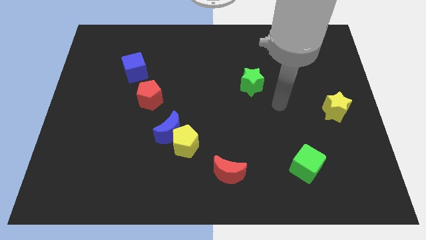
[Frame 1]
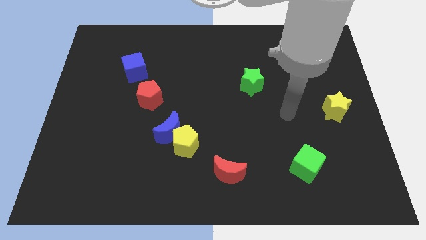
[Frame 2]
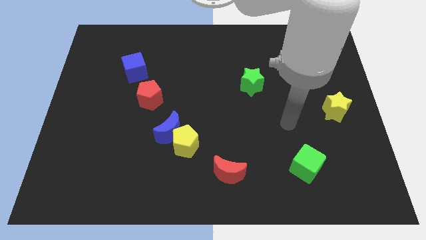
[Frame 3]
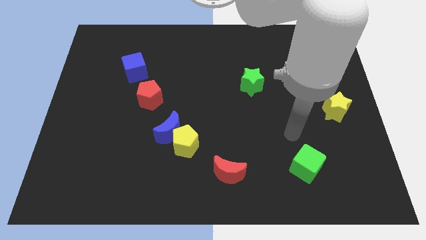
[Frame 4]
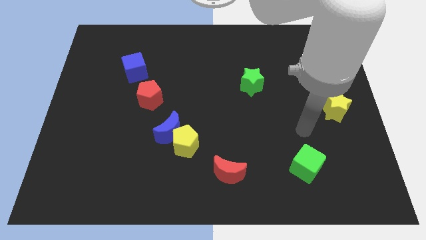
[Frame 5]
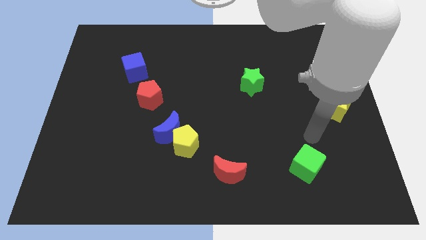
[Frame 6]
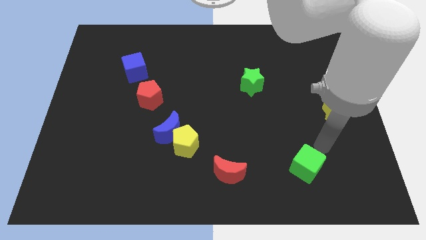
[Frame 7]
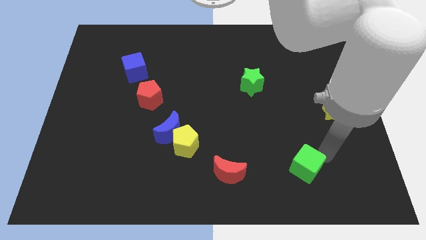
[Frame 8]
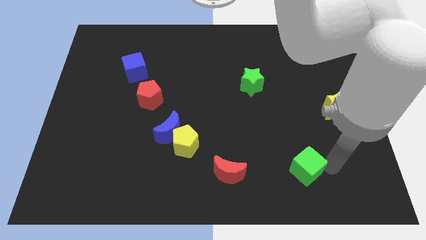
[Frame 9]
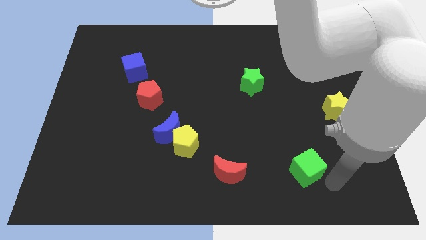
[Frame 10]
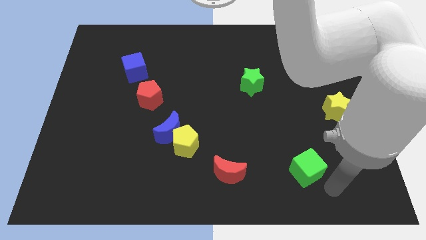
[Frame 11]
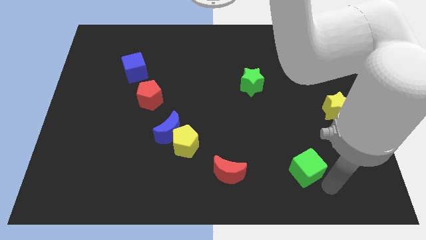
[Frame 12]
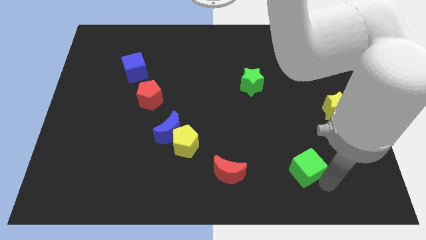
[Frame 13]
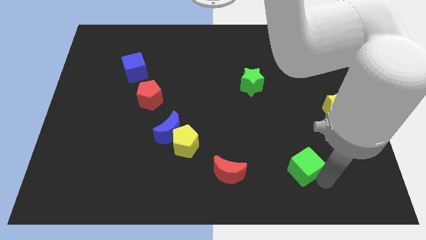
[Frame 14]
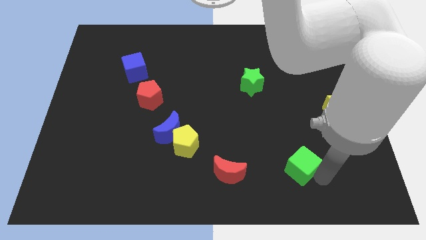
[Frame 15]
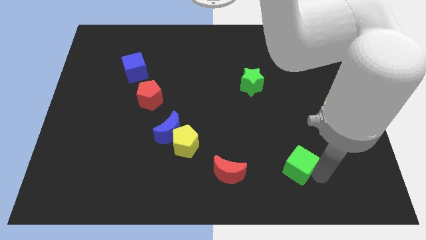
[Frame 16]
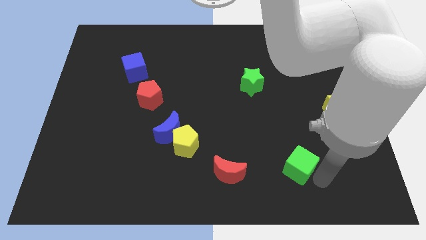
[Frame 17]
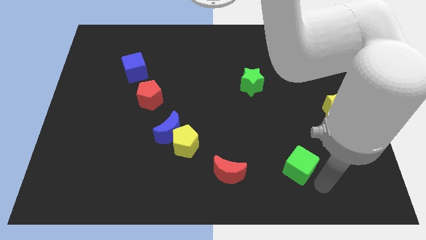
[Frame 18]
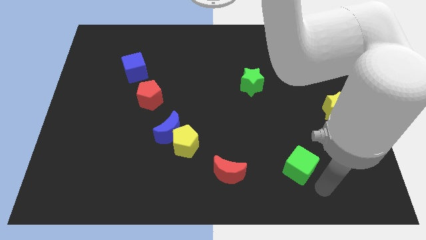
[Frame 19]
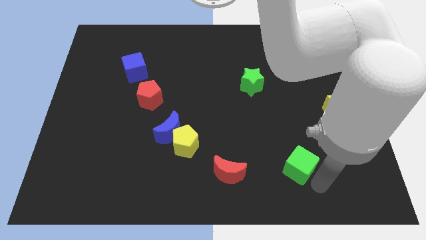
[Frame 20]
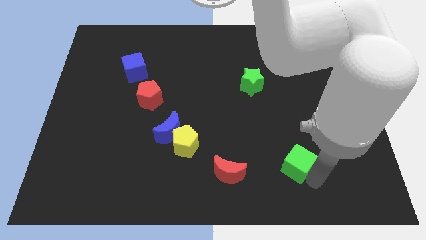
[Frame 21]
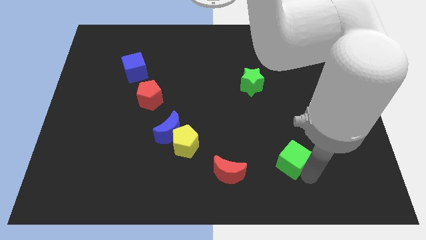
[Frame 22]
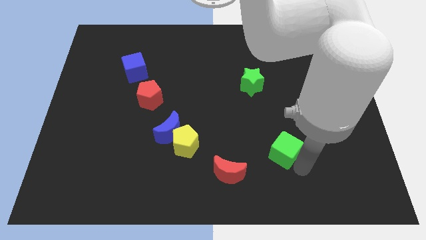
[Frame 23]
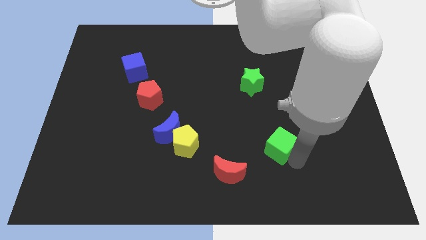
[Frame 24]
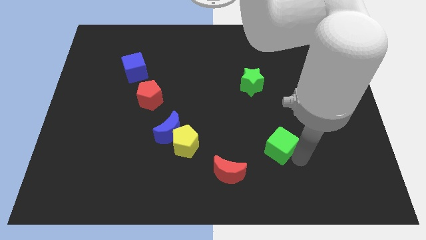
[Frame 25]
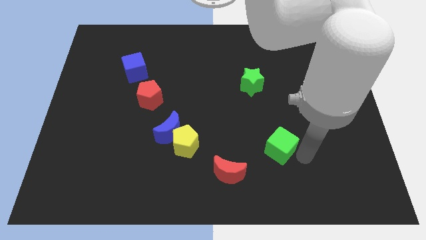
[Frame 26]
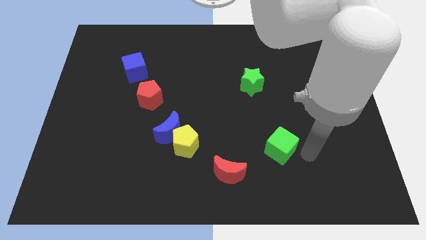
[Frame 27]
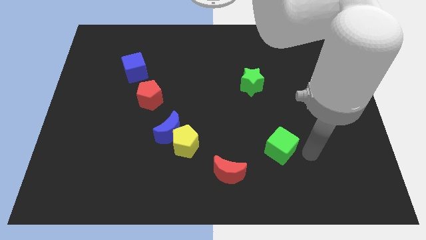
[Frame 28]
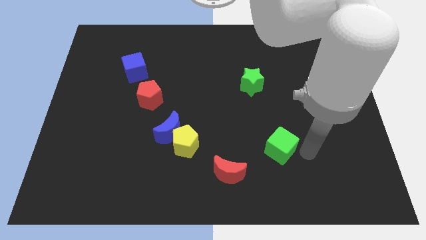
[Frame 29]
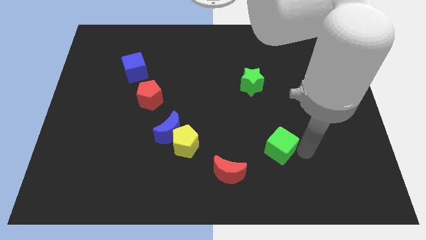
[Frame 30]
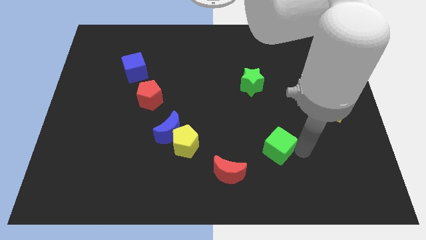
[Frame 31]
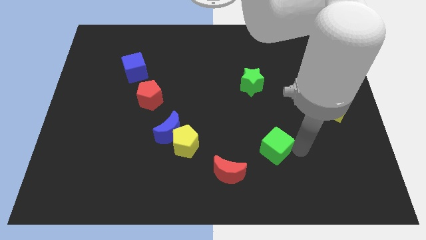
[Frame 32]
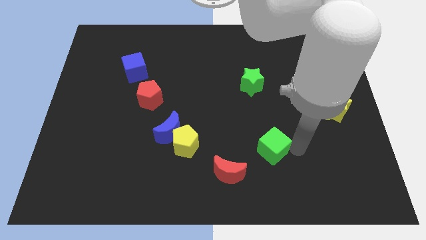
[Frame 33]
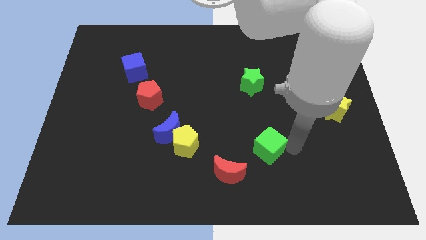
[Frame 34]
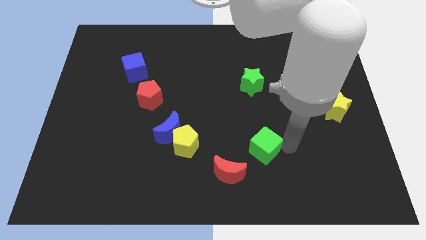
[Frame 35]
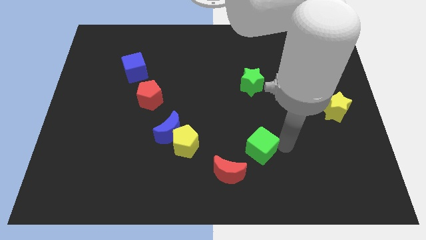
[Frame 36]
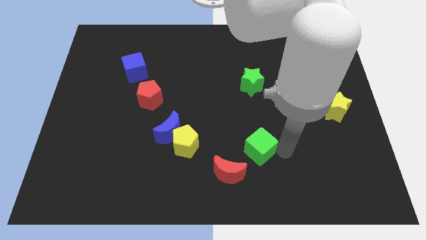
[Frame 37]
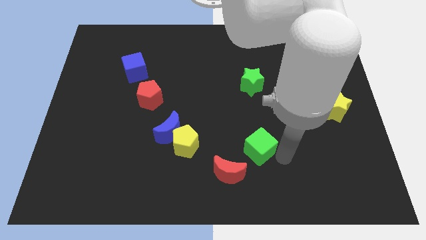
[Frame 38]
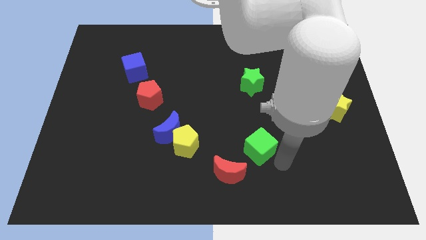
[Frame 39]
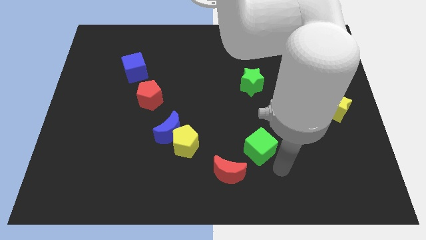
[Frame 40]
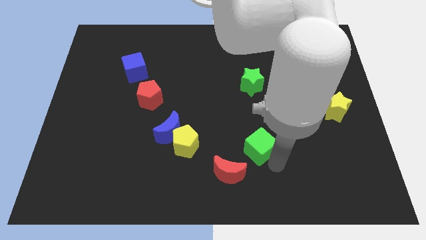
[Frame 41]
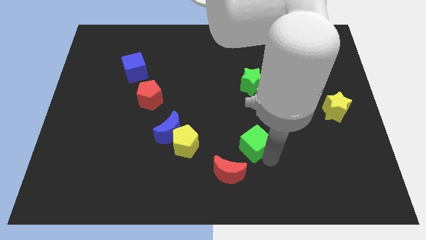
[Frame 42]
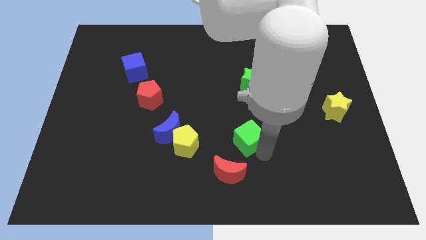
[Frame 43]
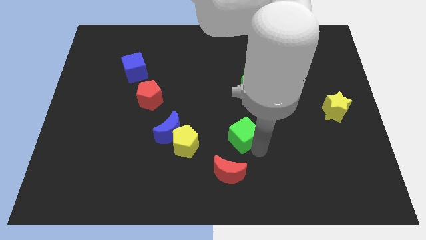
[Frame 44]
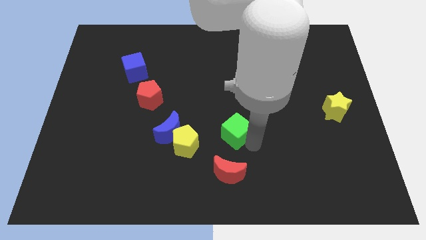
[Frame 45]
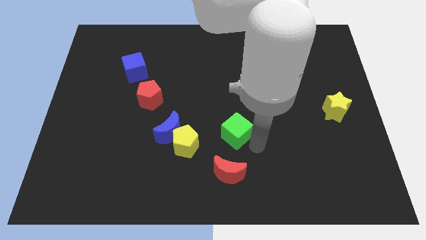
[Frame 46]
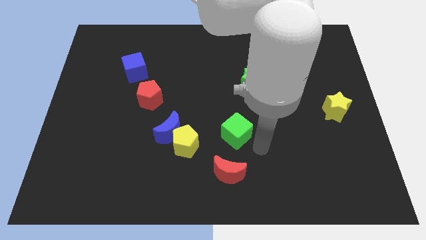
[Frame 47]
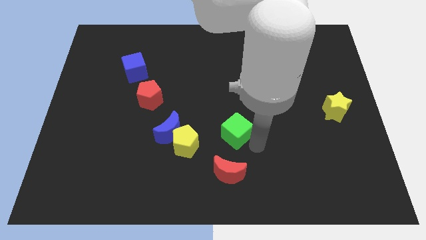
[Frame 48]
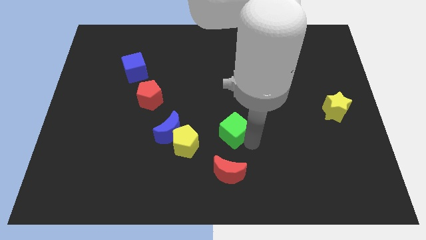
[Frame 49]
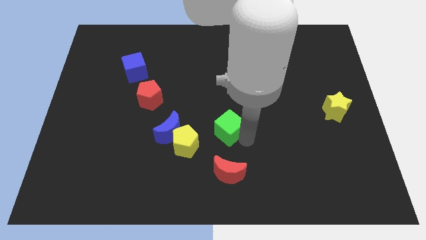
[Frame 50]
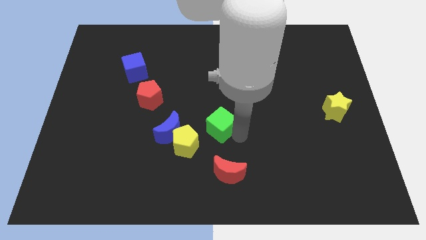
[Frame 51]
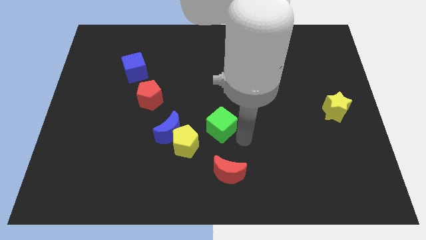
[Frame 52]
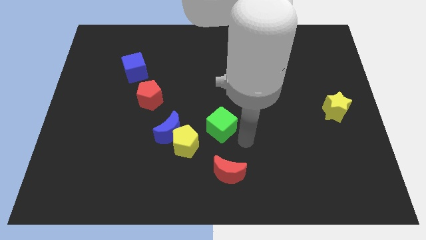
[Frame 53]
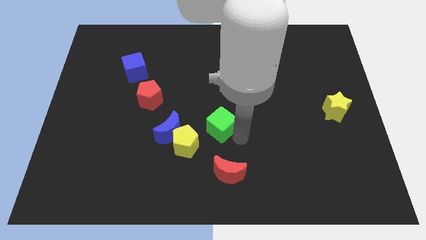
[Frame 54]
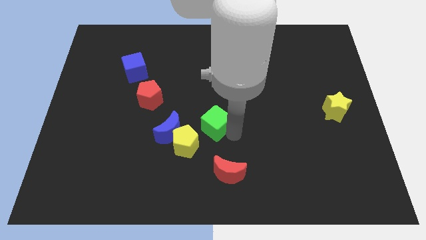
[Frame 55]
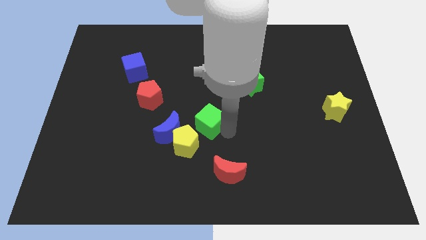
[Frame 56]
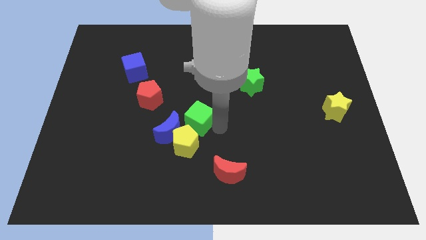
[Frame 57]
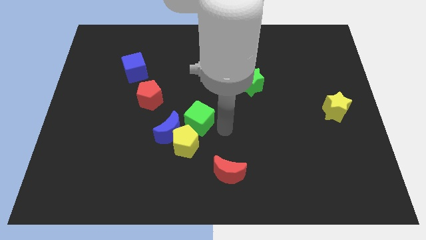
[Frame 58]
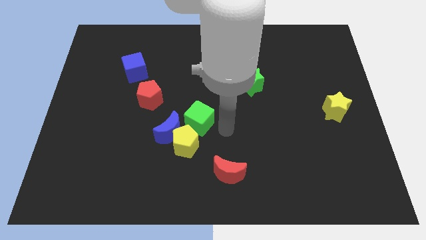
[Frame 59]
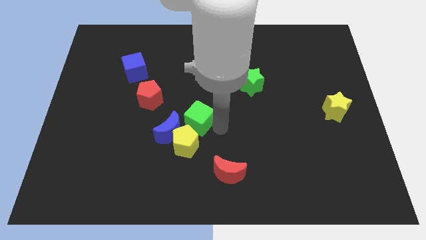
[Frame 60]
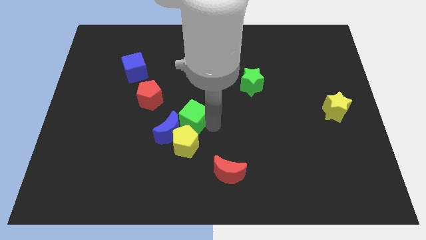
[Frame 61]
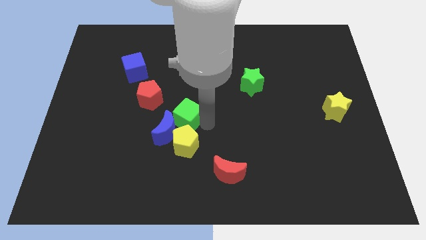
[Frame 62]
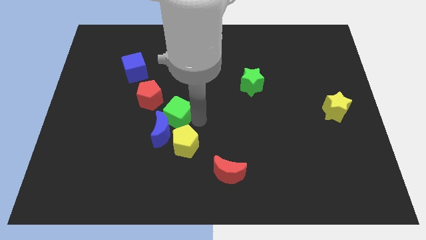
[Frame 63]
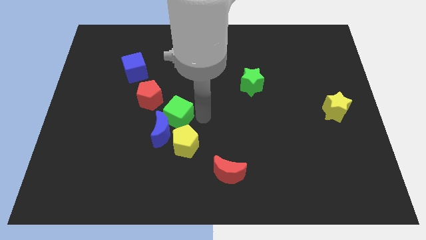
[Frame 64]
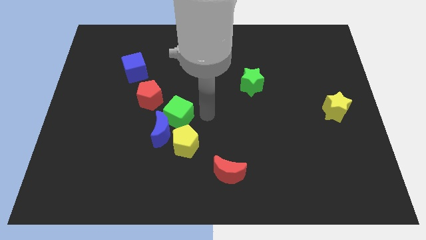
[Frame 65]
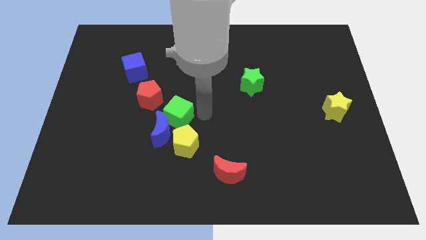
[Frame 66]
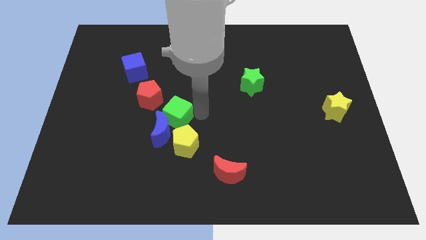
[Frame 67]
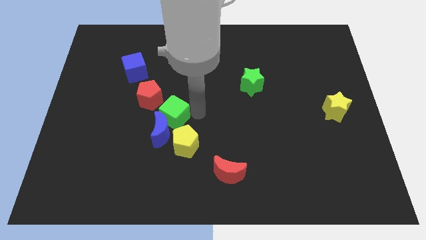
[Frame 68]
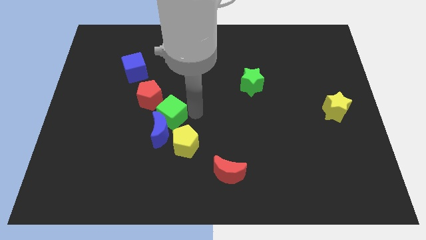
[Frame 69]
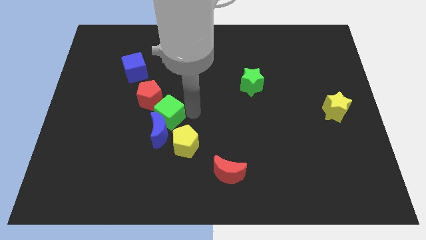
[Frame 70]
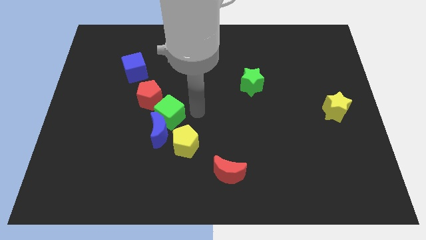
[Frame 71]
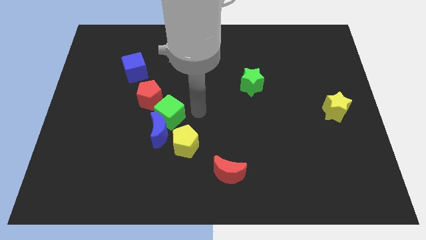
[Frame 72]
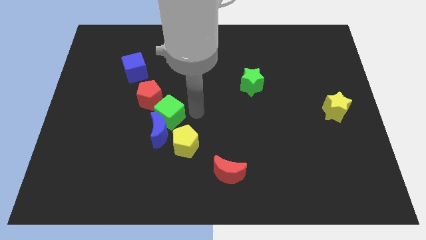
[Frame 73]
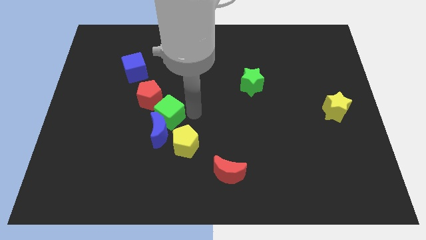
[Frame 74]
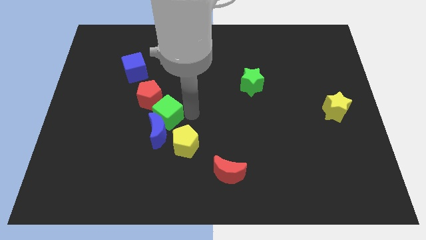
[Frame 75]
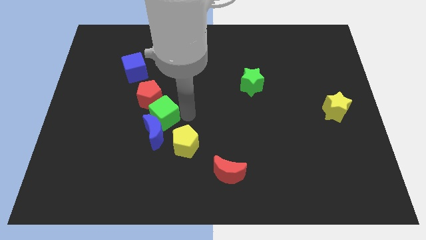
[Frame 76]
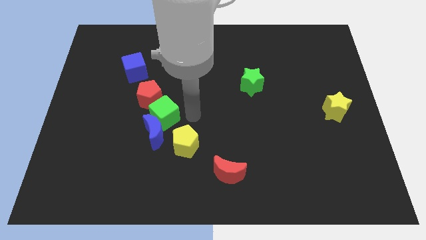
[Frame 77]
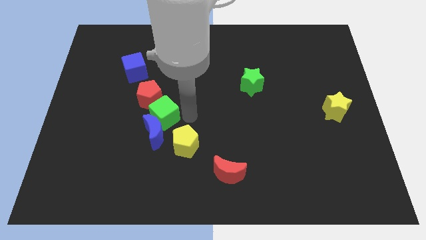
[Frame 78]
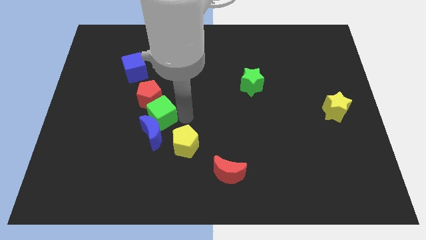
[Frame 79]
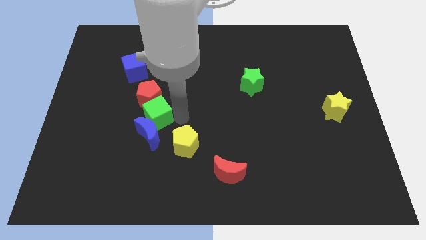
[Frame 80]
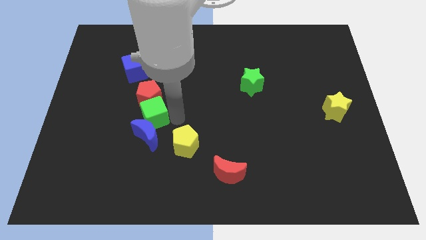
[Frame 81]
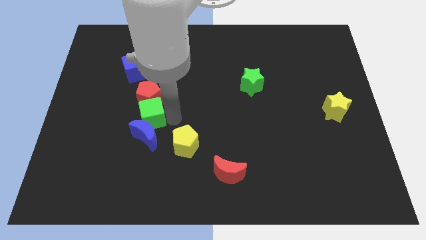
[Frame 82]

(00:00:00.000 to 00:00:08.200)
push the green cube diagonally down and to the left of the red pentagon
